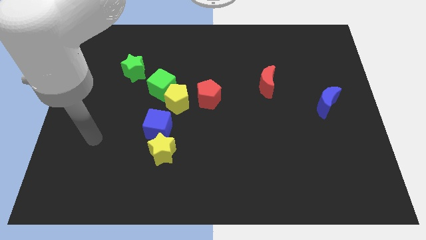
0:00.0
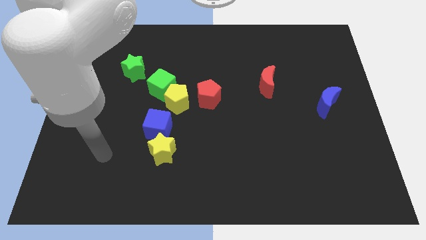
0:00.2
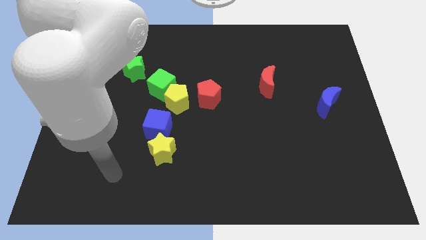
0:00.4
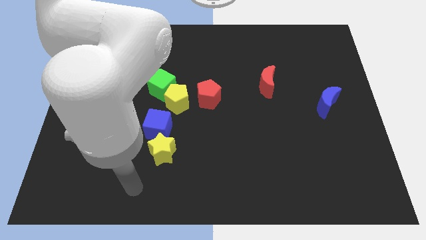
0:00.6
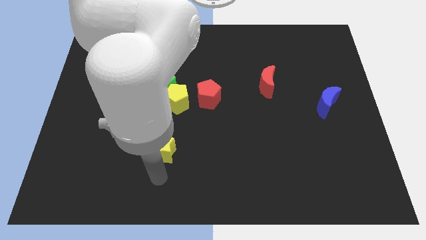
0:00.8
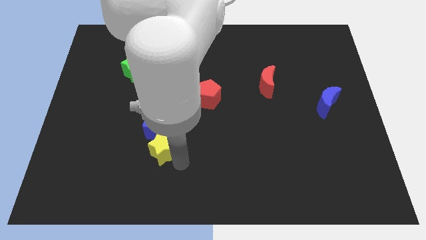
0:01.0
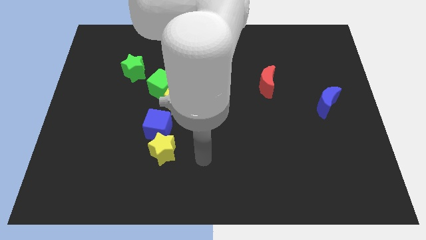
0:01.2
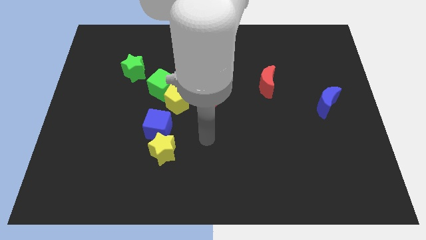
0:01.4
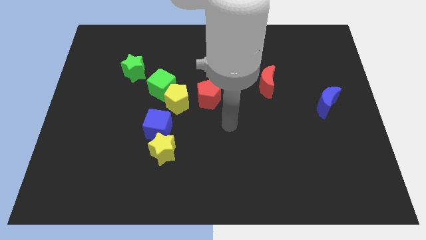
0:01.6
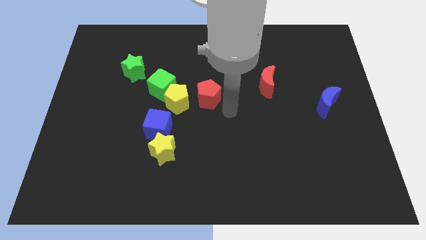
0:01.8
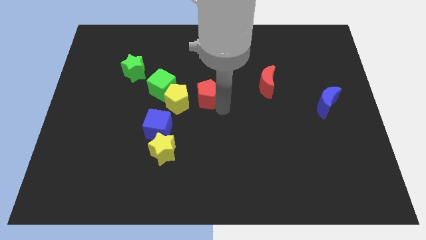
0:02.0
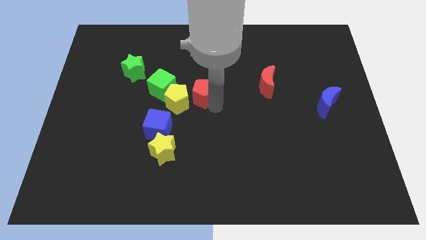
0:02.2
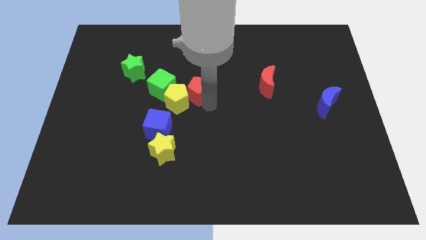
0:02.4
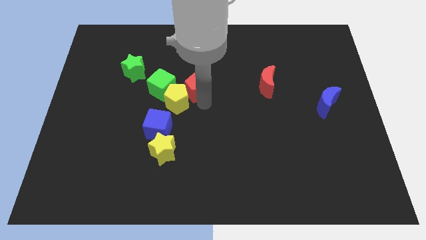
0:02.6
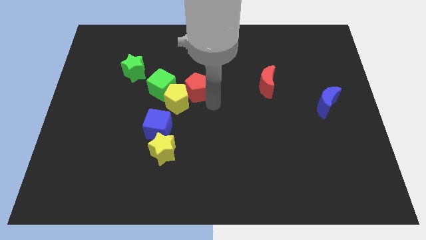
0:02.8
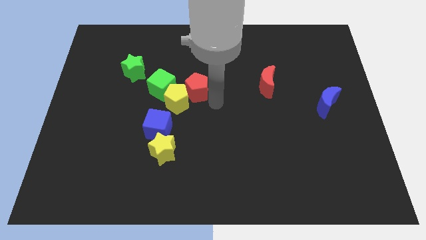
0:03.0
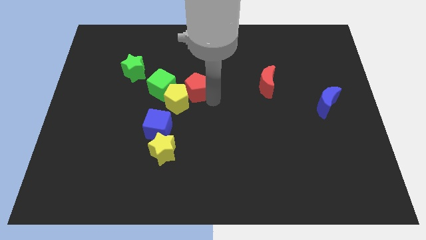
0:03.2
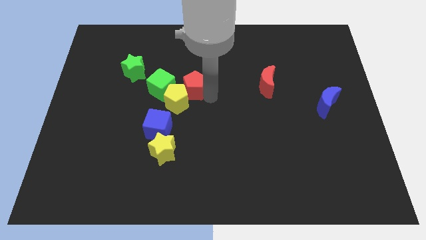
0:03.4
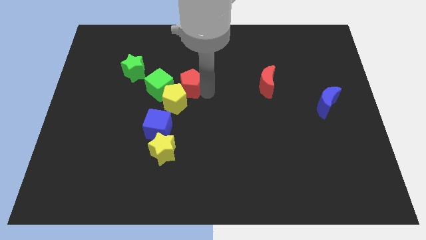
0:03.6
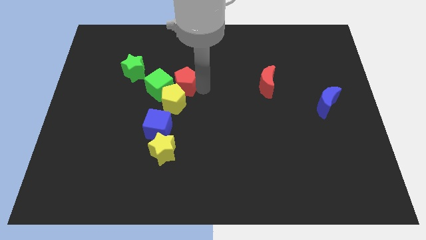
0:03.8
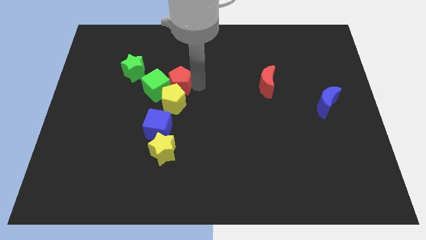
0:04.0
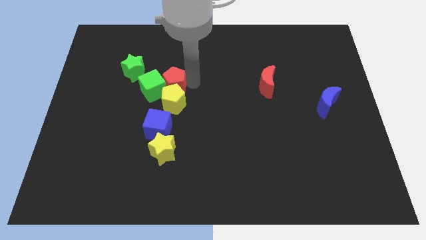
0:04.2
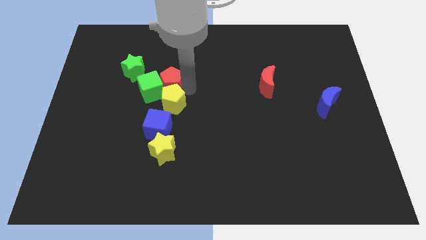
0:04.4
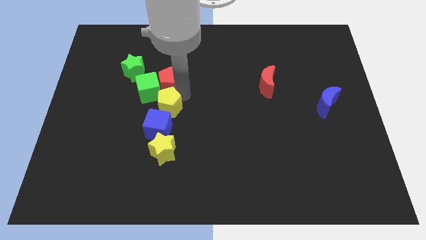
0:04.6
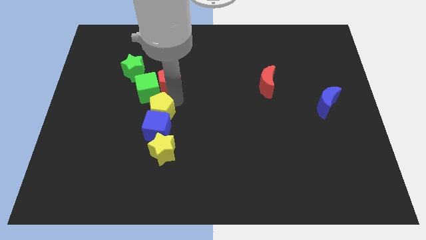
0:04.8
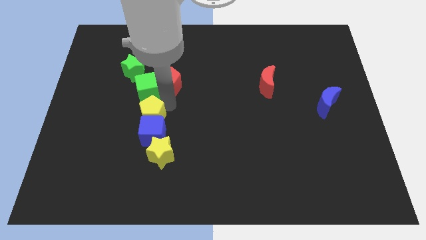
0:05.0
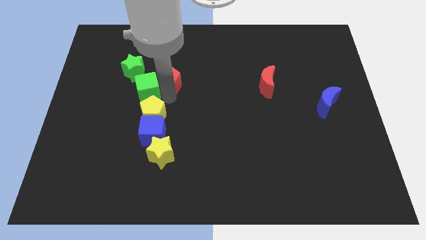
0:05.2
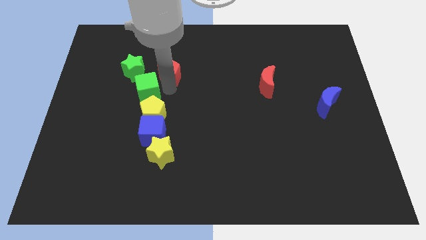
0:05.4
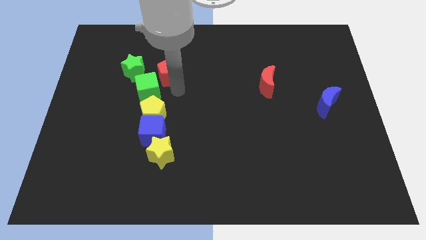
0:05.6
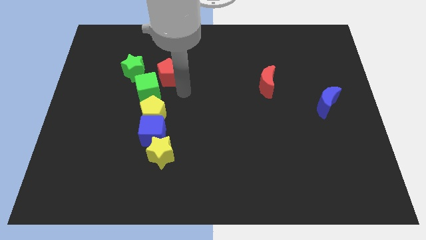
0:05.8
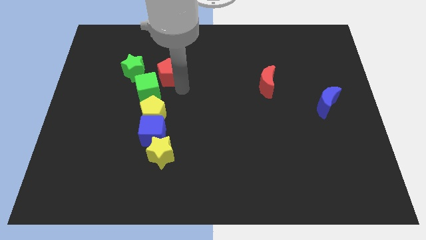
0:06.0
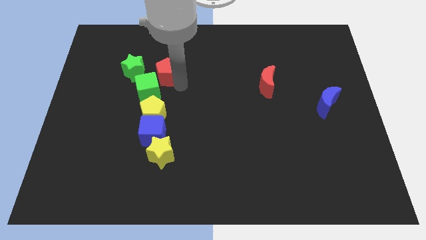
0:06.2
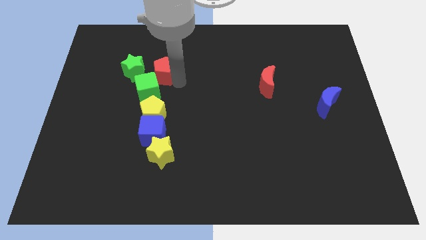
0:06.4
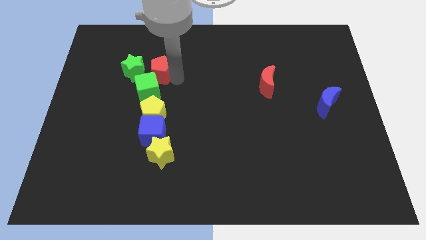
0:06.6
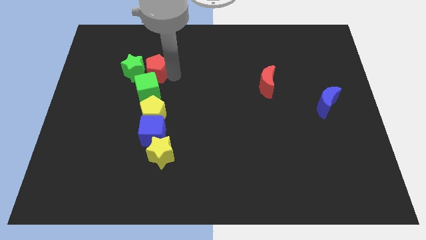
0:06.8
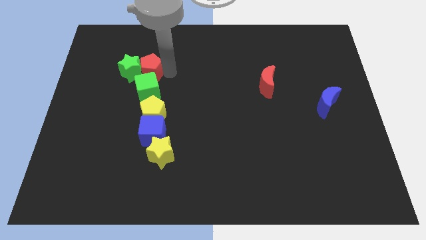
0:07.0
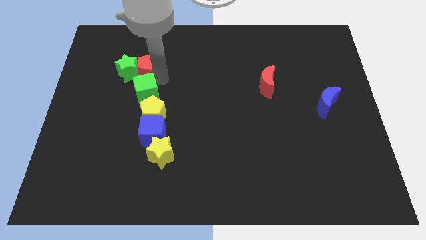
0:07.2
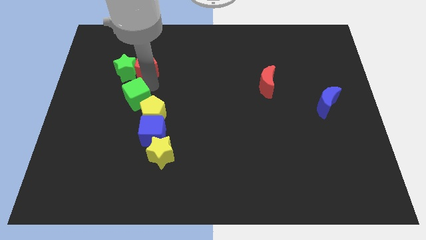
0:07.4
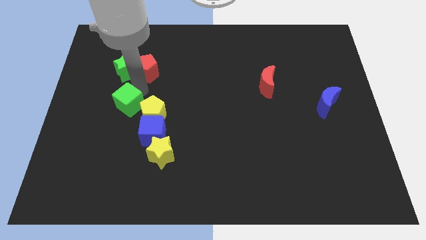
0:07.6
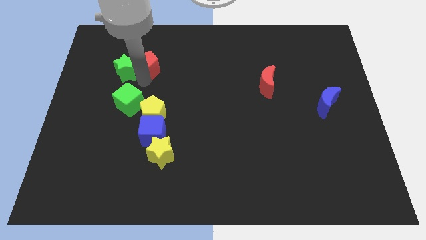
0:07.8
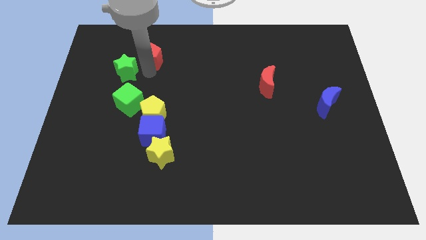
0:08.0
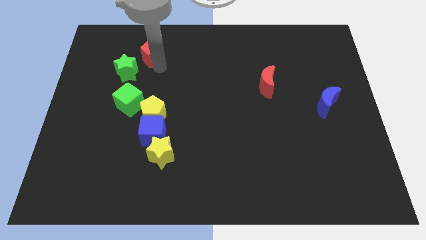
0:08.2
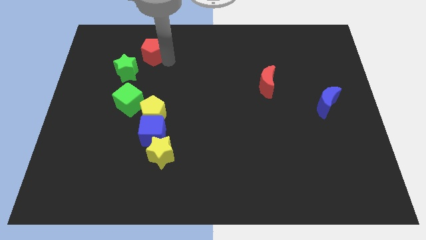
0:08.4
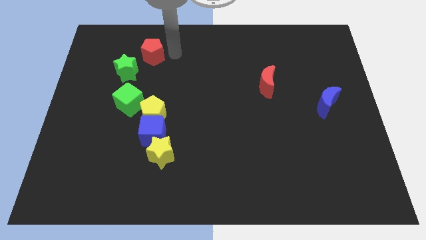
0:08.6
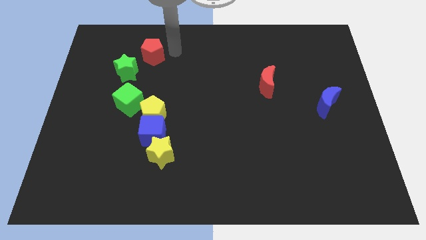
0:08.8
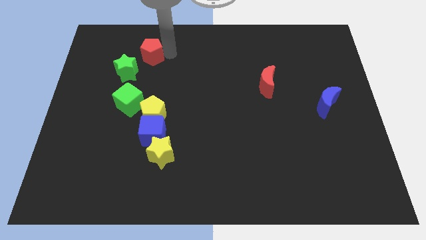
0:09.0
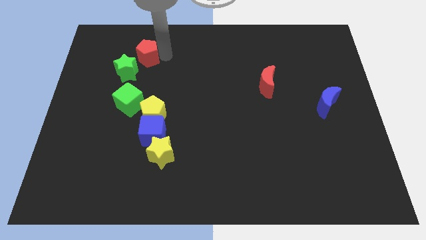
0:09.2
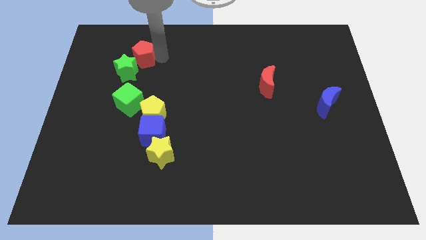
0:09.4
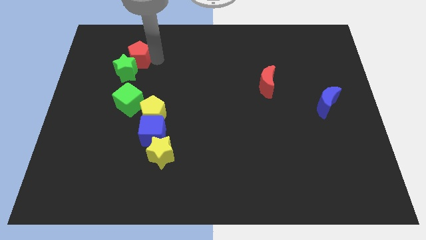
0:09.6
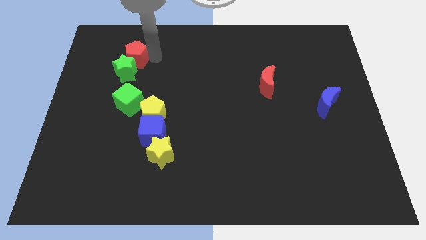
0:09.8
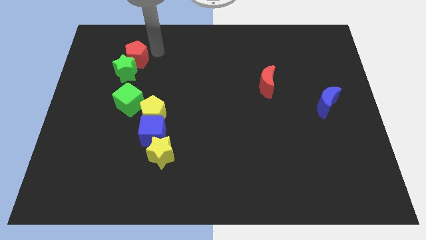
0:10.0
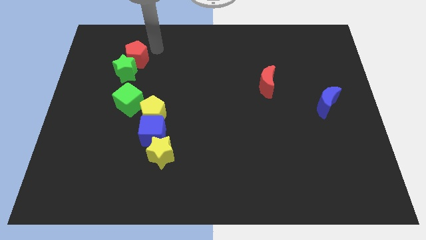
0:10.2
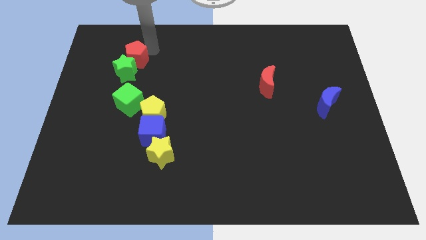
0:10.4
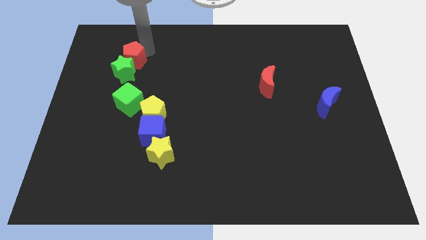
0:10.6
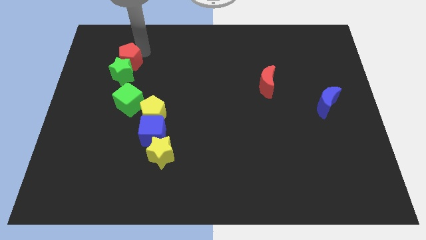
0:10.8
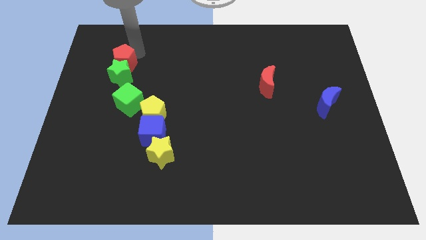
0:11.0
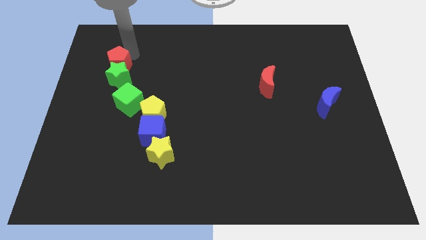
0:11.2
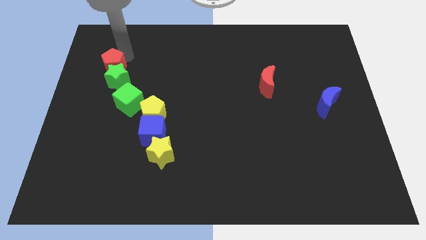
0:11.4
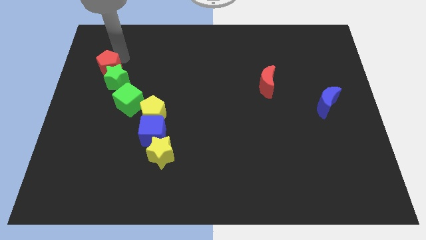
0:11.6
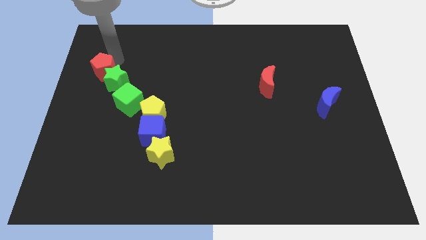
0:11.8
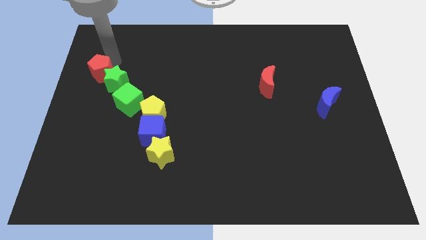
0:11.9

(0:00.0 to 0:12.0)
move the red pentagon to the center left

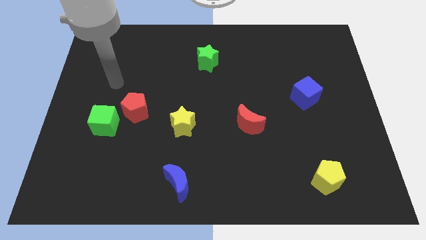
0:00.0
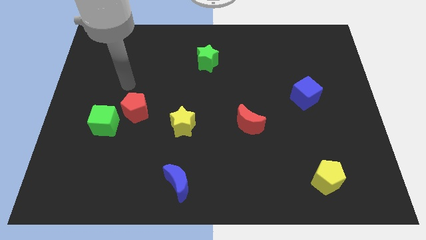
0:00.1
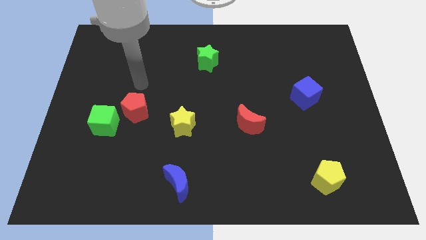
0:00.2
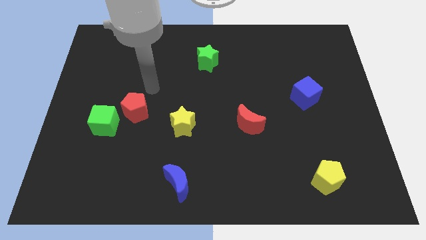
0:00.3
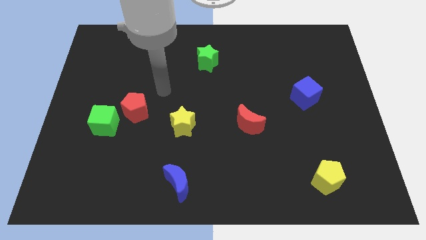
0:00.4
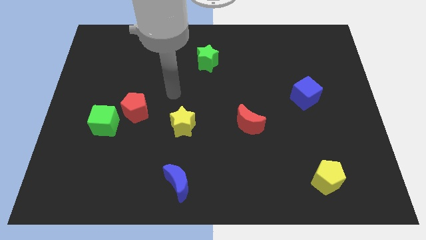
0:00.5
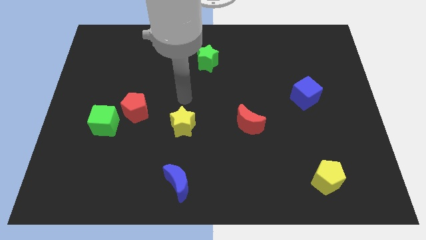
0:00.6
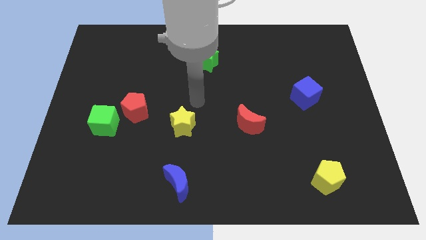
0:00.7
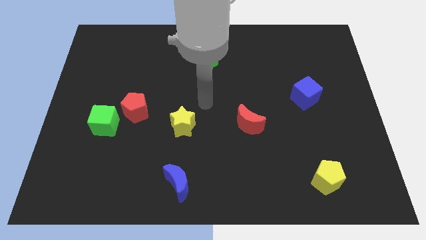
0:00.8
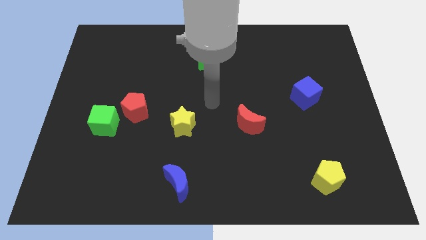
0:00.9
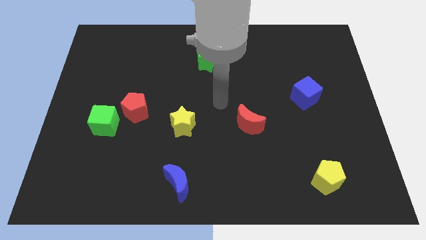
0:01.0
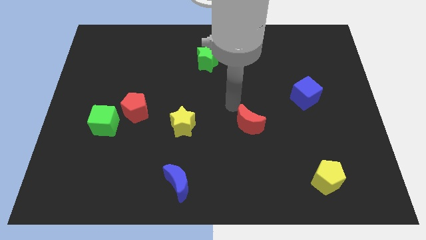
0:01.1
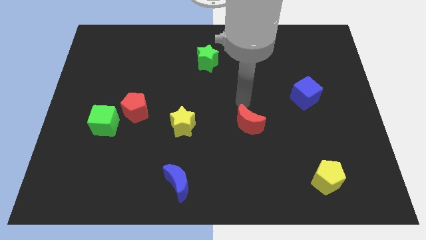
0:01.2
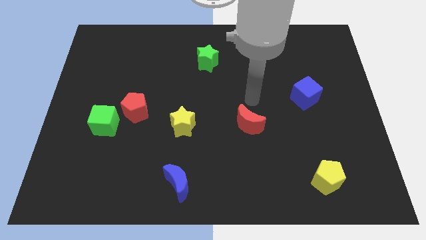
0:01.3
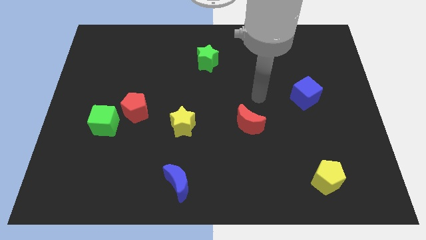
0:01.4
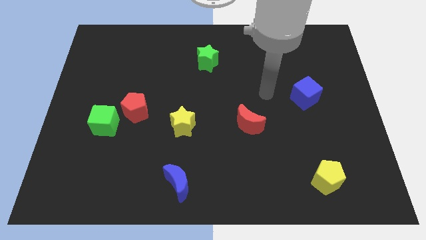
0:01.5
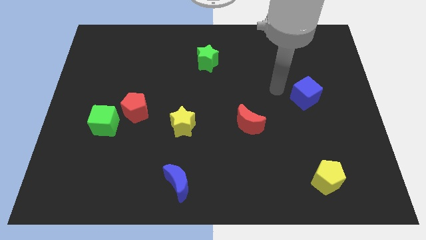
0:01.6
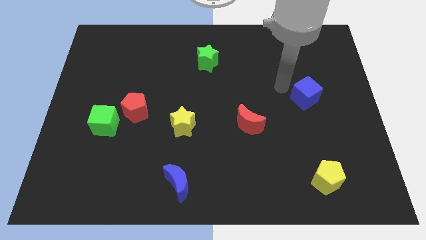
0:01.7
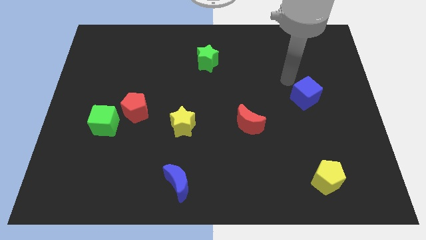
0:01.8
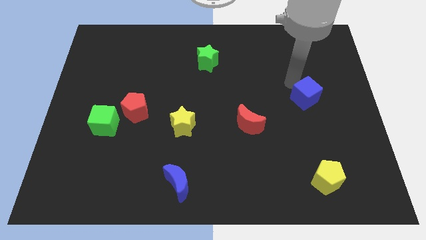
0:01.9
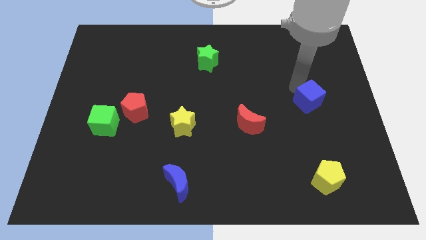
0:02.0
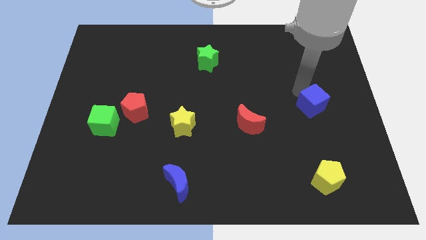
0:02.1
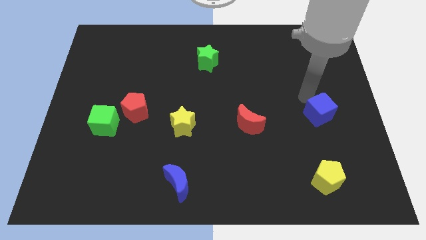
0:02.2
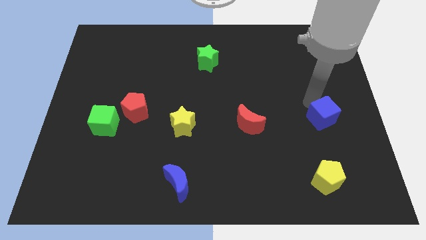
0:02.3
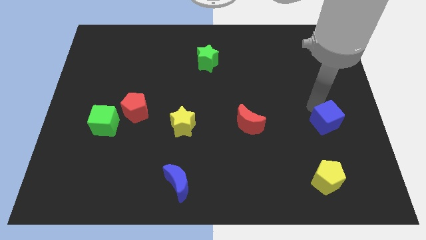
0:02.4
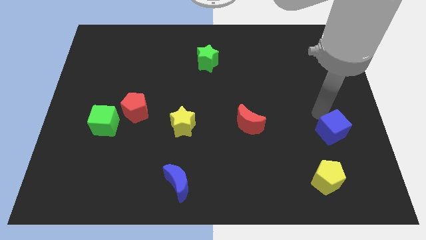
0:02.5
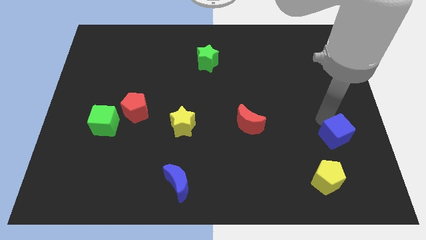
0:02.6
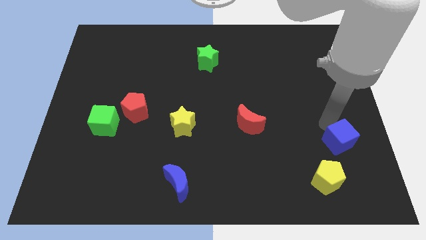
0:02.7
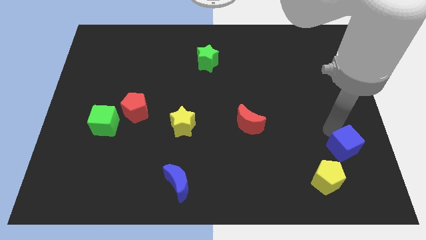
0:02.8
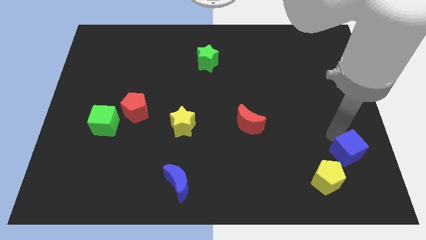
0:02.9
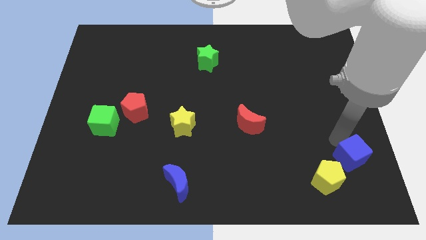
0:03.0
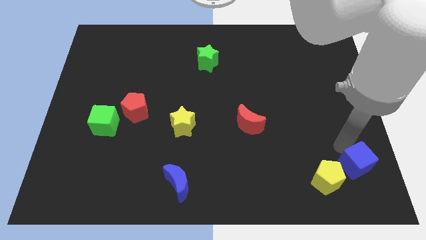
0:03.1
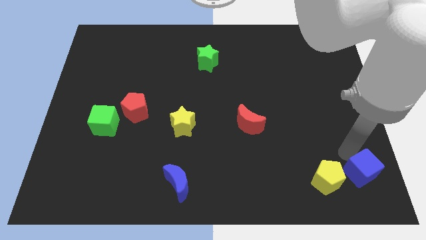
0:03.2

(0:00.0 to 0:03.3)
slide the blue cube to the bottom right corner
